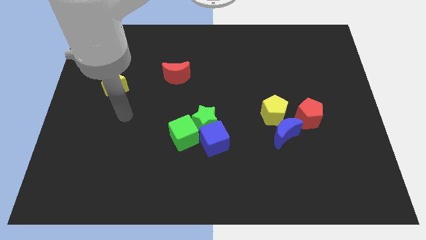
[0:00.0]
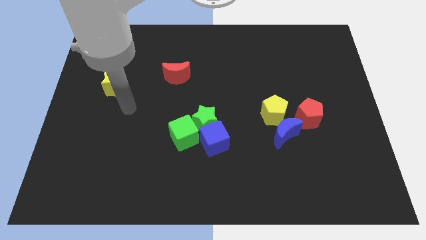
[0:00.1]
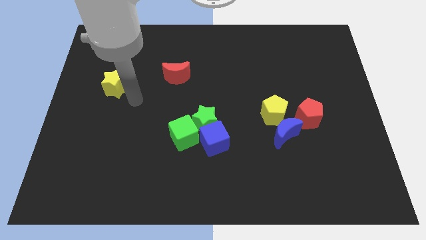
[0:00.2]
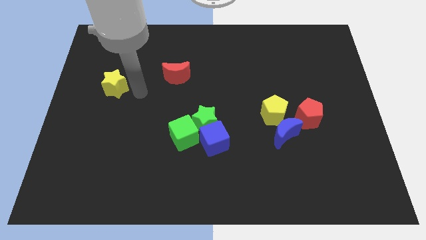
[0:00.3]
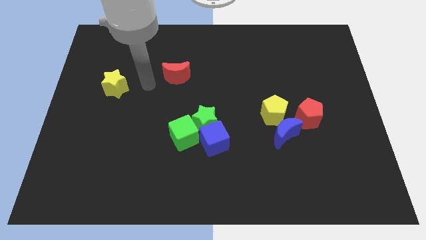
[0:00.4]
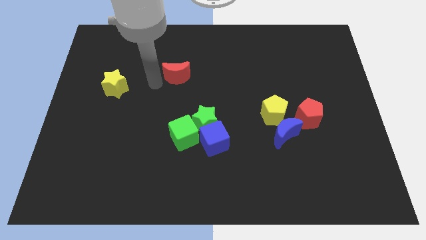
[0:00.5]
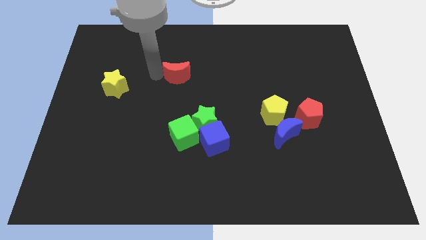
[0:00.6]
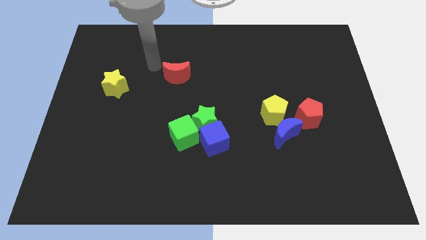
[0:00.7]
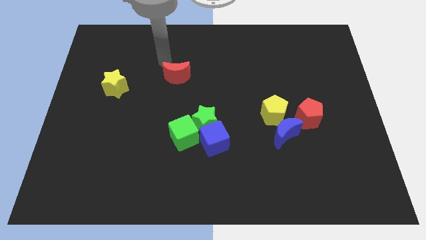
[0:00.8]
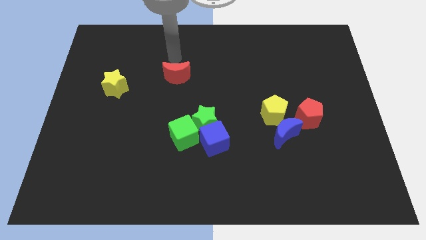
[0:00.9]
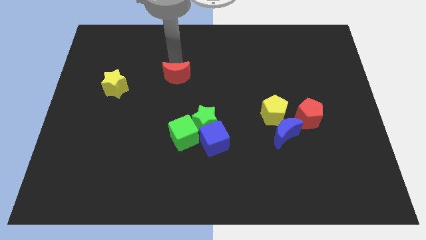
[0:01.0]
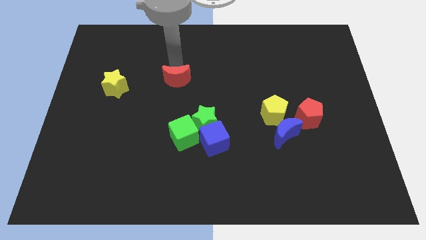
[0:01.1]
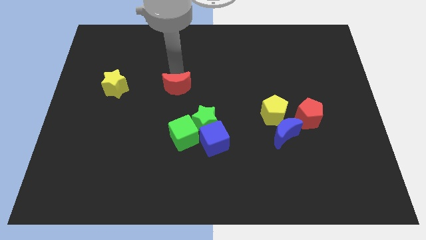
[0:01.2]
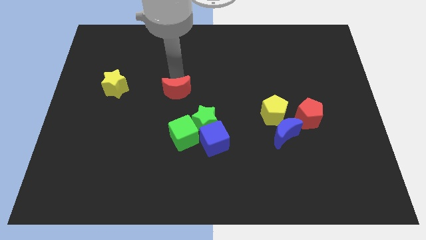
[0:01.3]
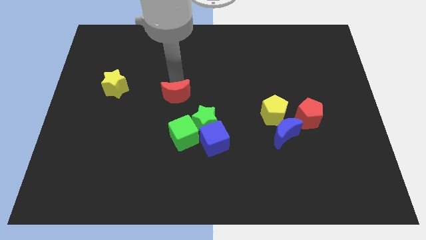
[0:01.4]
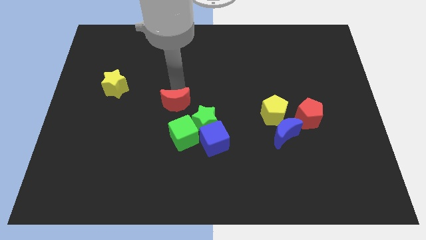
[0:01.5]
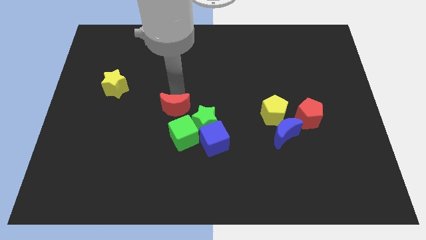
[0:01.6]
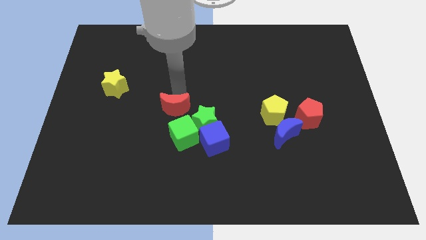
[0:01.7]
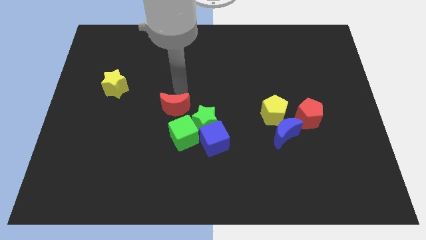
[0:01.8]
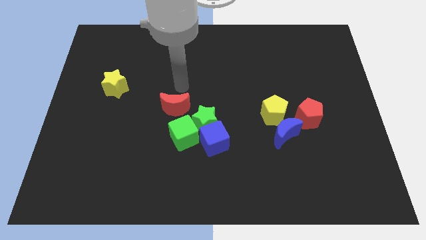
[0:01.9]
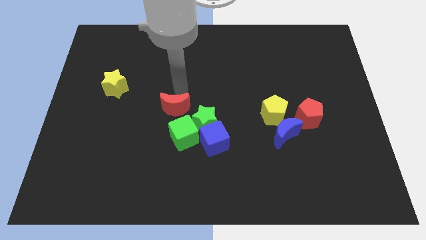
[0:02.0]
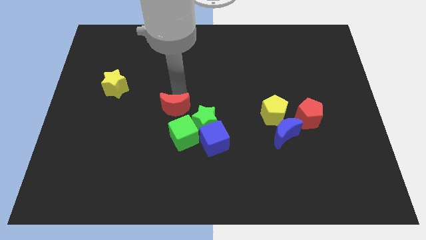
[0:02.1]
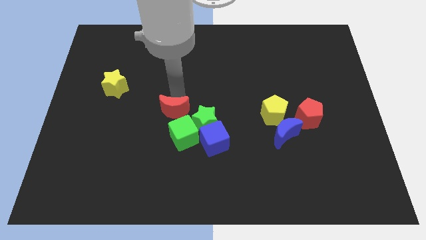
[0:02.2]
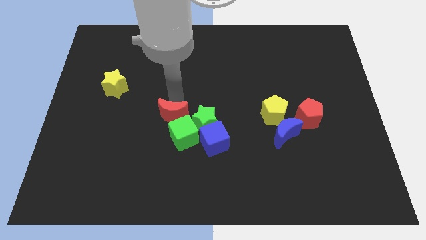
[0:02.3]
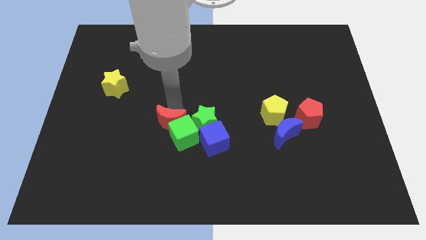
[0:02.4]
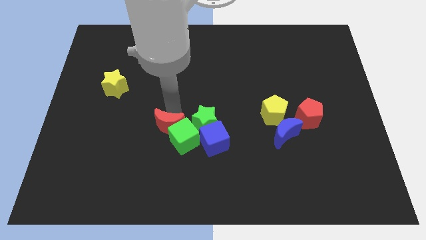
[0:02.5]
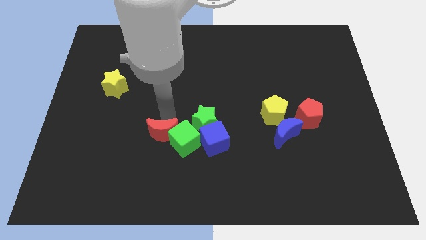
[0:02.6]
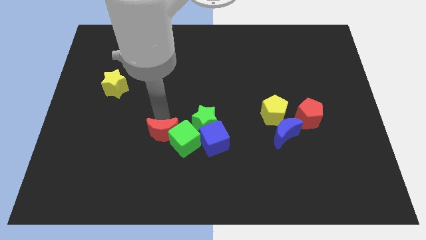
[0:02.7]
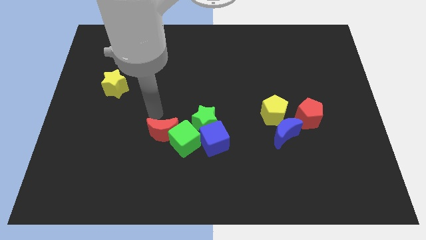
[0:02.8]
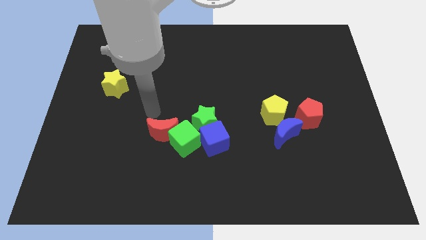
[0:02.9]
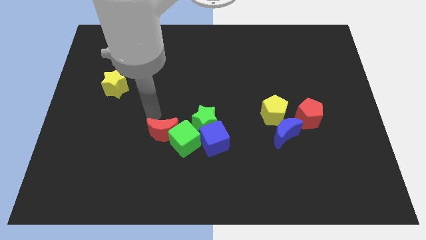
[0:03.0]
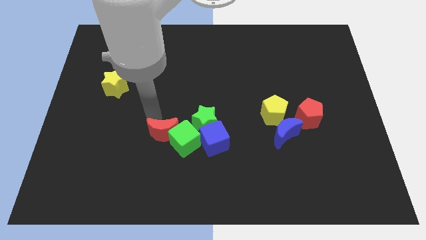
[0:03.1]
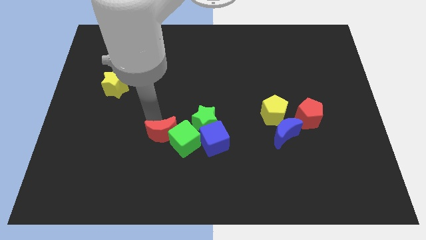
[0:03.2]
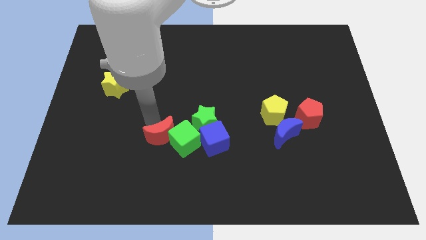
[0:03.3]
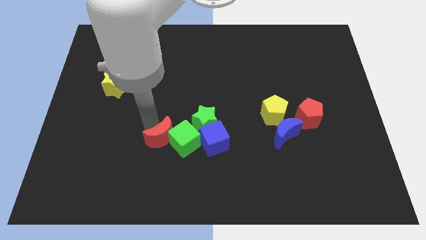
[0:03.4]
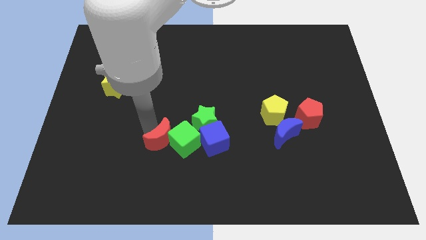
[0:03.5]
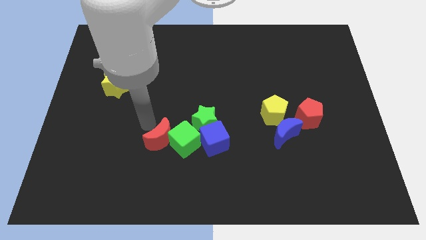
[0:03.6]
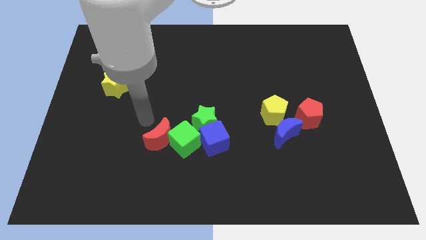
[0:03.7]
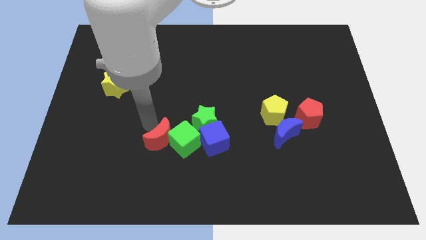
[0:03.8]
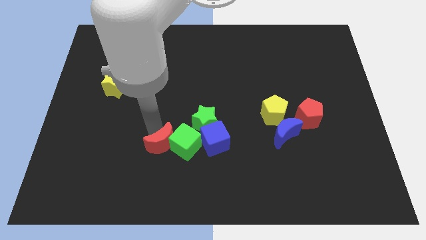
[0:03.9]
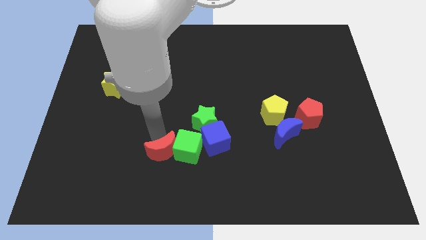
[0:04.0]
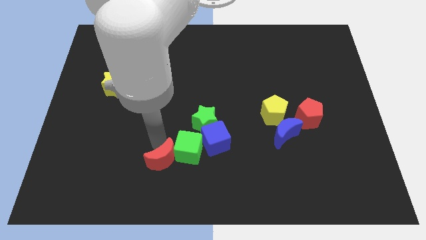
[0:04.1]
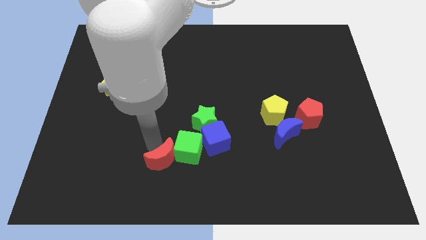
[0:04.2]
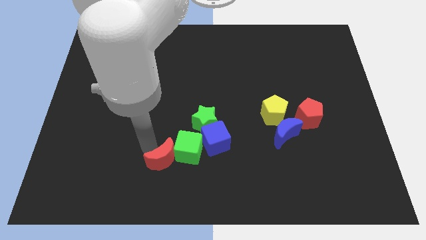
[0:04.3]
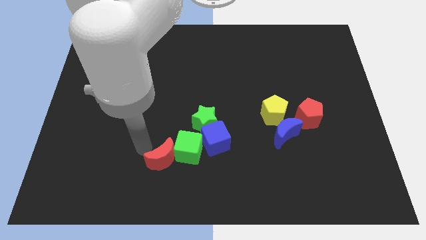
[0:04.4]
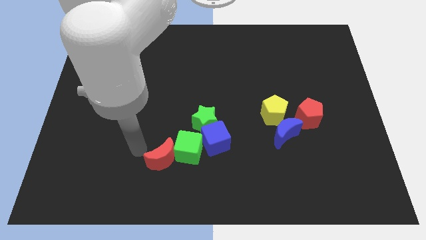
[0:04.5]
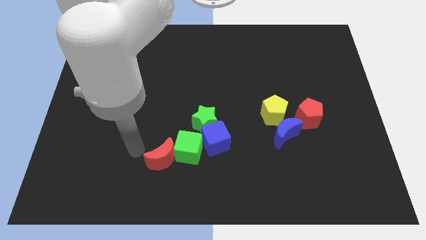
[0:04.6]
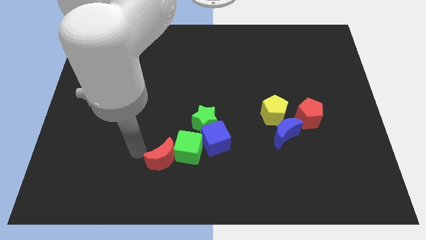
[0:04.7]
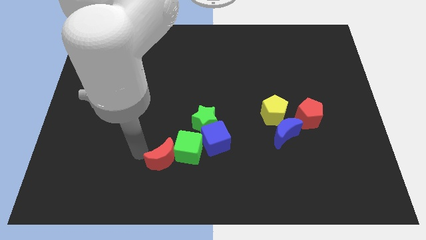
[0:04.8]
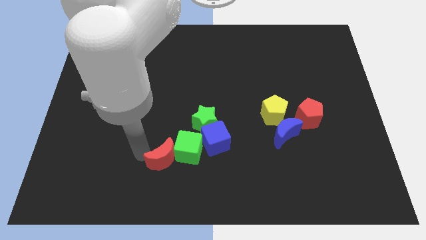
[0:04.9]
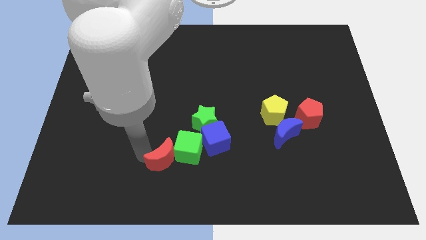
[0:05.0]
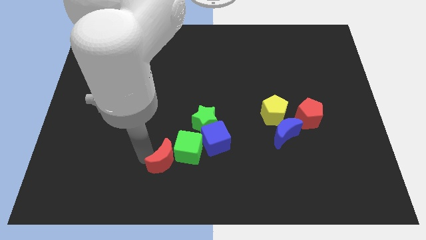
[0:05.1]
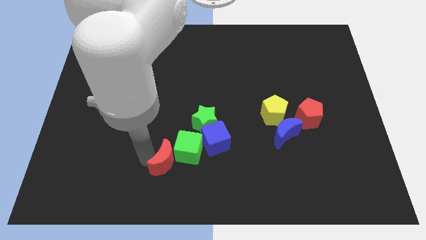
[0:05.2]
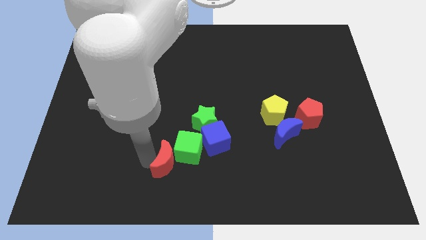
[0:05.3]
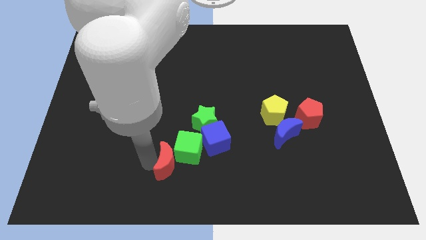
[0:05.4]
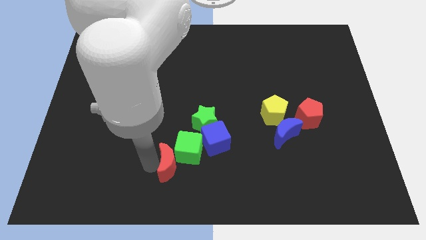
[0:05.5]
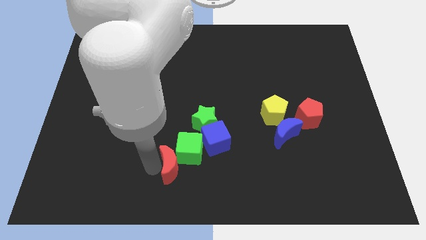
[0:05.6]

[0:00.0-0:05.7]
slide the red moon to the bottom side

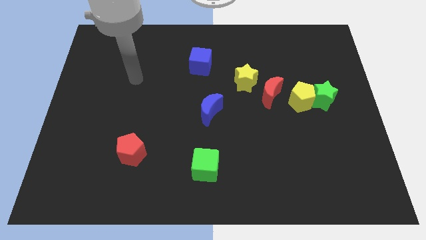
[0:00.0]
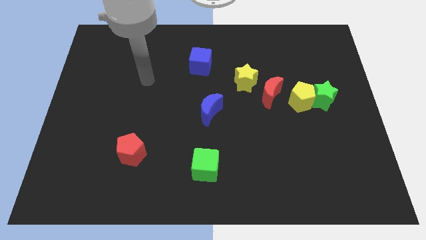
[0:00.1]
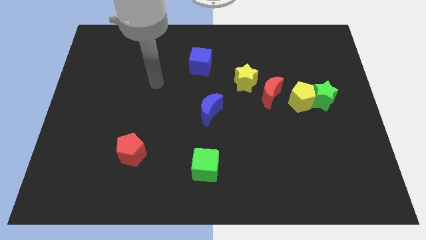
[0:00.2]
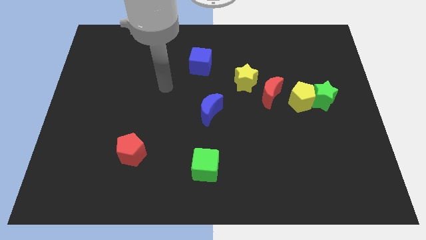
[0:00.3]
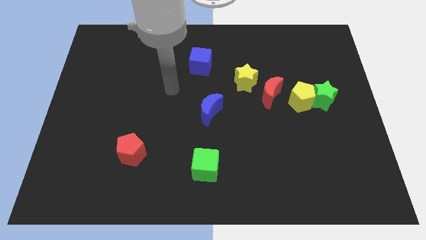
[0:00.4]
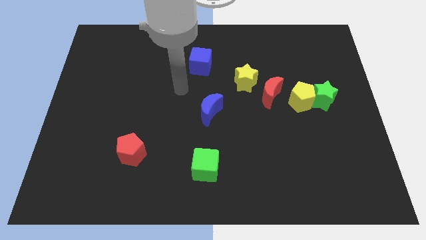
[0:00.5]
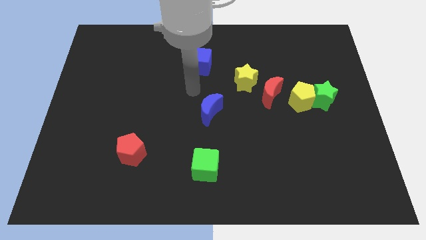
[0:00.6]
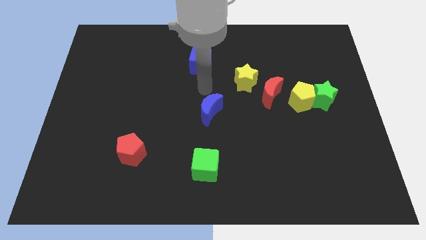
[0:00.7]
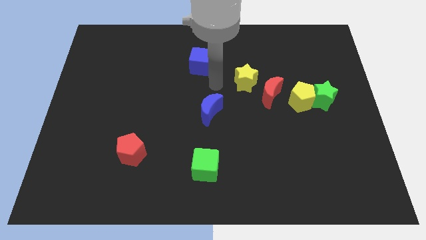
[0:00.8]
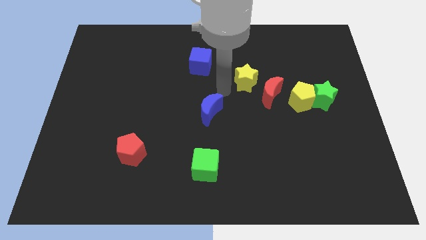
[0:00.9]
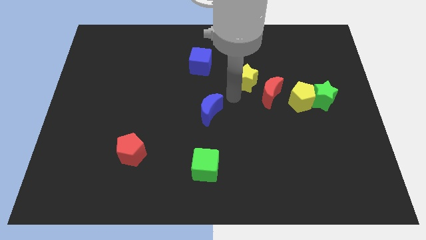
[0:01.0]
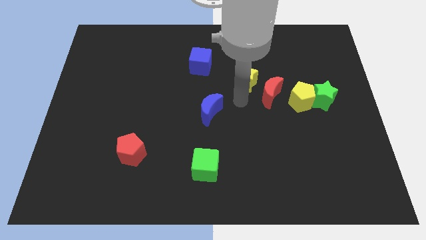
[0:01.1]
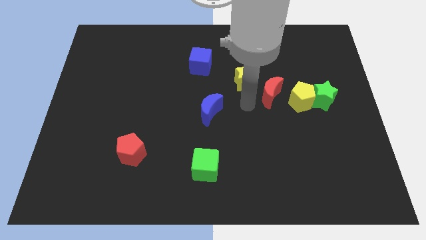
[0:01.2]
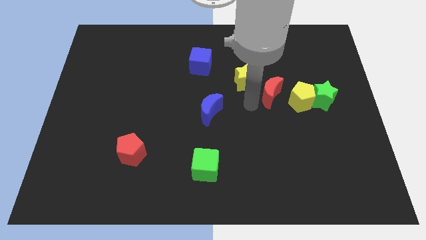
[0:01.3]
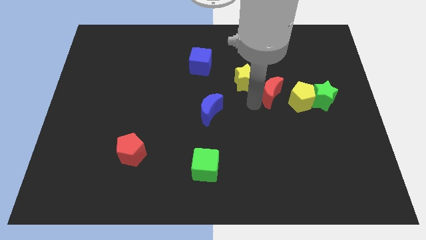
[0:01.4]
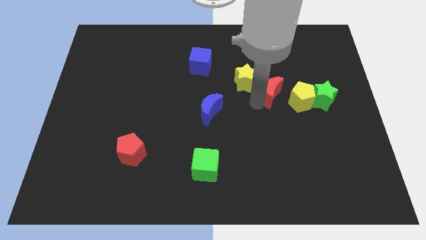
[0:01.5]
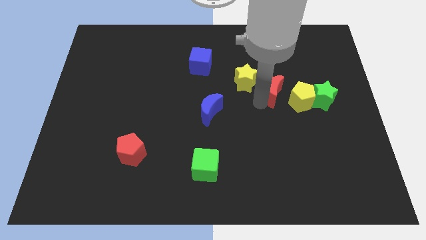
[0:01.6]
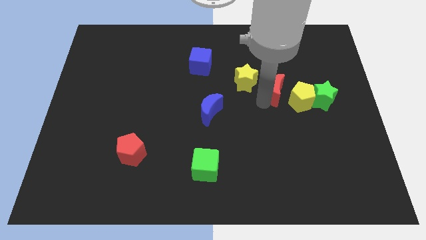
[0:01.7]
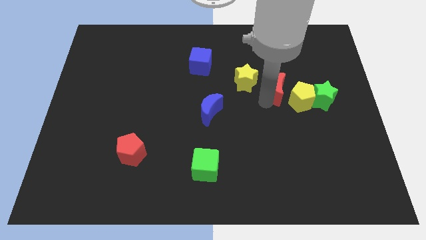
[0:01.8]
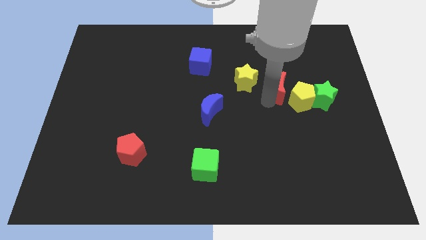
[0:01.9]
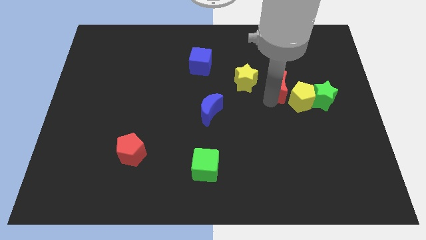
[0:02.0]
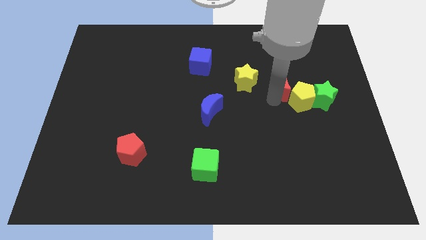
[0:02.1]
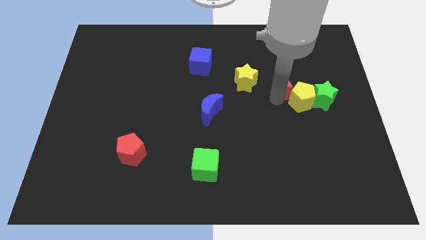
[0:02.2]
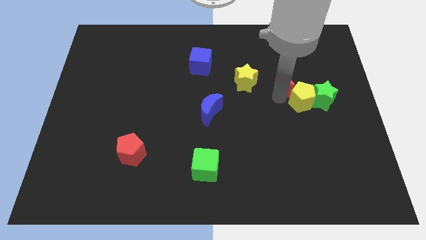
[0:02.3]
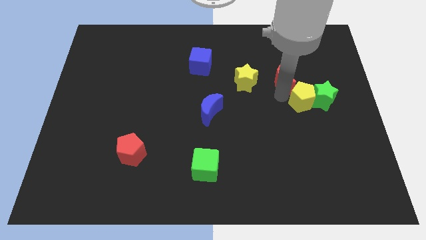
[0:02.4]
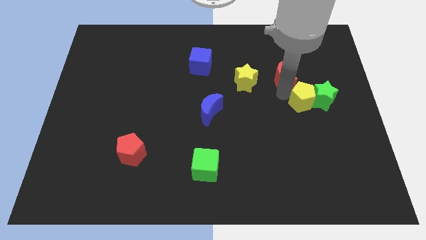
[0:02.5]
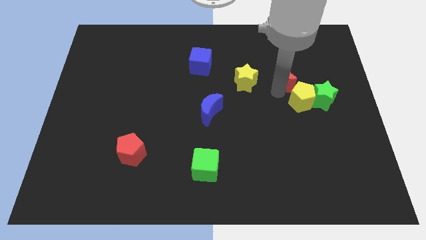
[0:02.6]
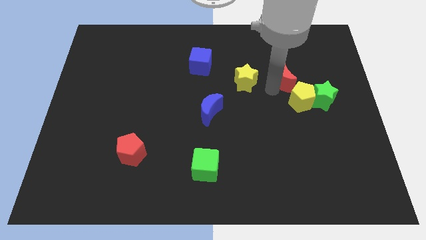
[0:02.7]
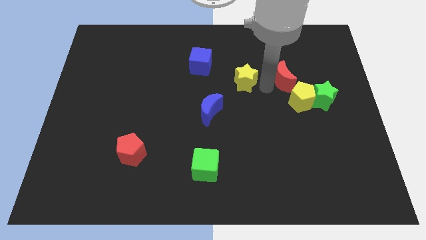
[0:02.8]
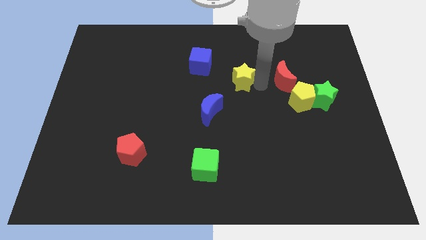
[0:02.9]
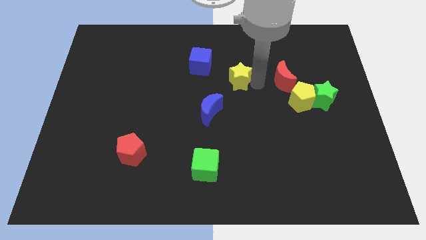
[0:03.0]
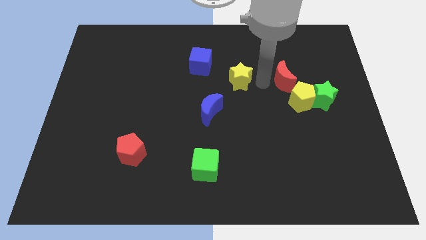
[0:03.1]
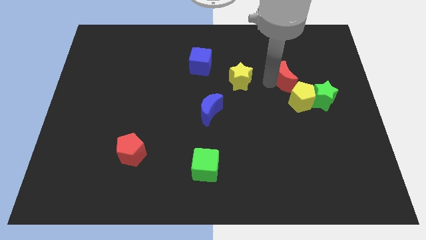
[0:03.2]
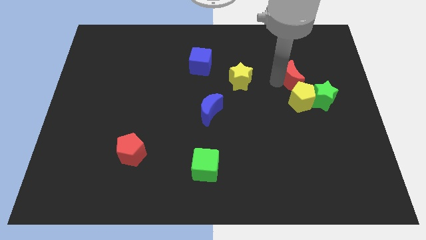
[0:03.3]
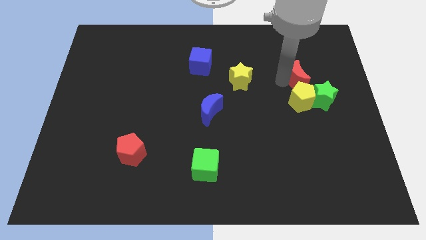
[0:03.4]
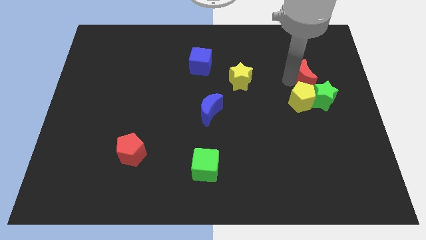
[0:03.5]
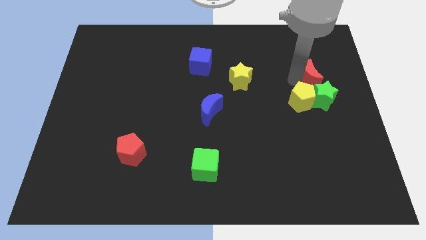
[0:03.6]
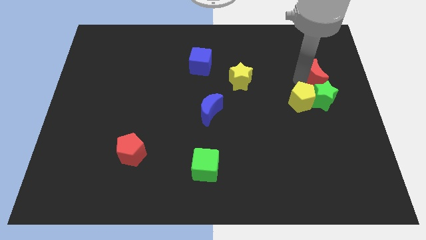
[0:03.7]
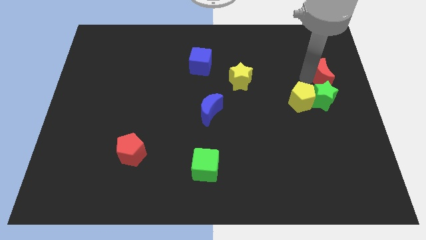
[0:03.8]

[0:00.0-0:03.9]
slide the red moon to the right side of the board
